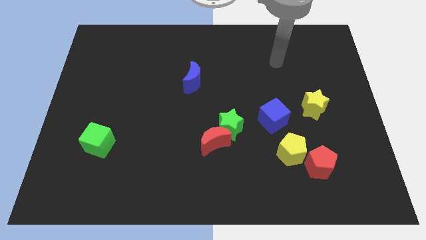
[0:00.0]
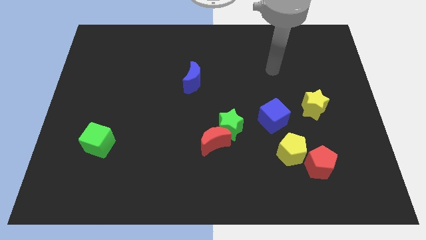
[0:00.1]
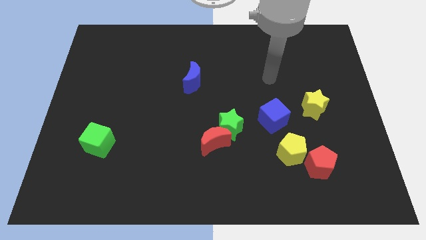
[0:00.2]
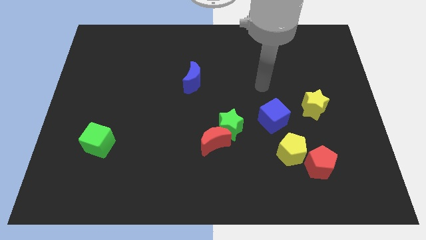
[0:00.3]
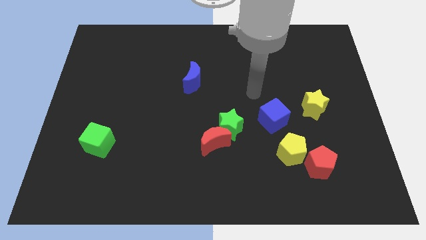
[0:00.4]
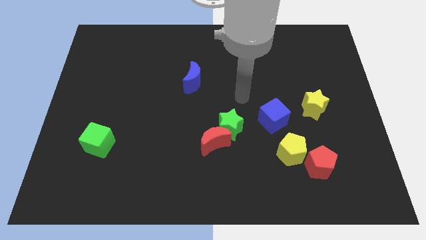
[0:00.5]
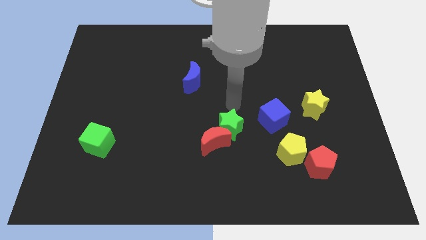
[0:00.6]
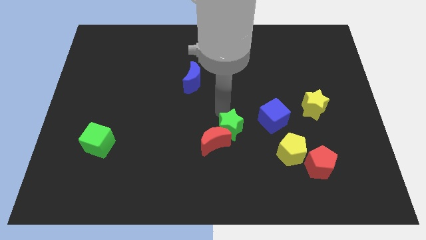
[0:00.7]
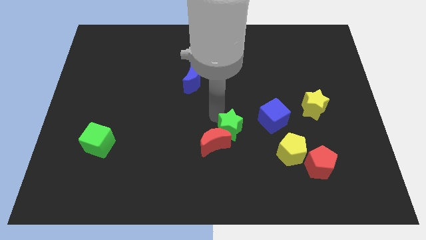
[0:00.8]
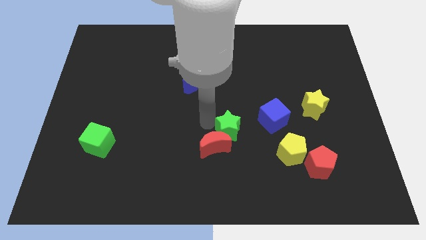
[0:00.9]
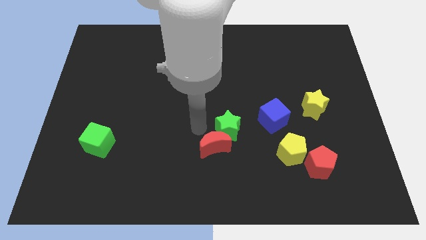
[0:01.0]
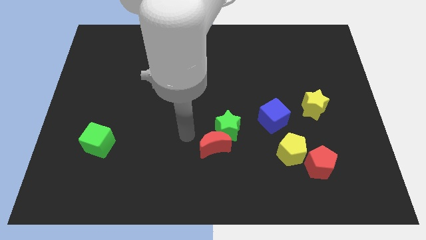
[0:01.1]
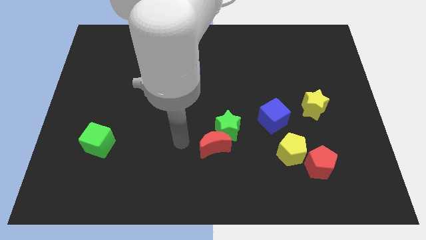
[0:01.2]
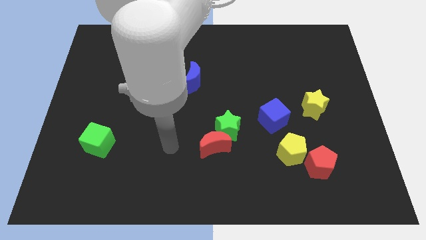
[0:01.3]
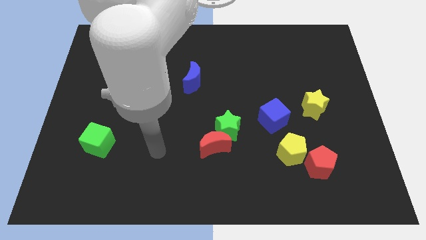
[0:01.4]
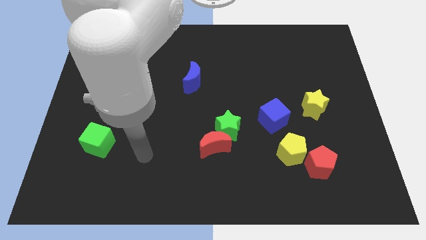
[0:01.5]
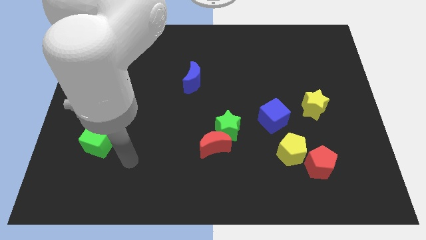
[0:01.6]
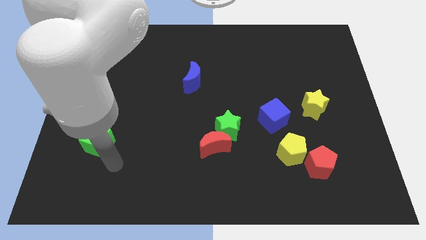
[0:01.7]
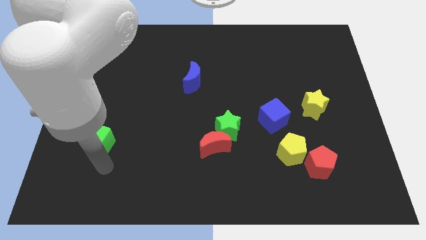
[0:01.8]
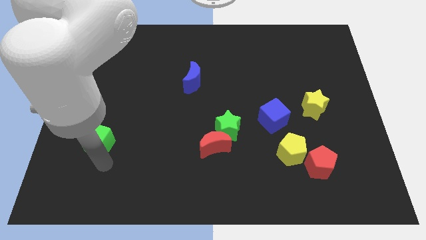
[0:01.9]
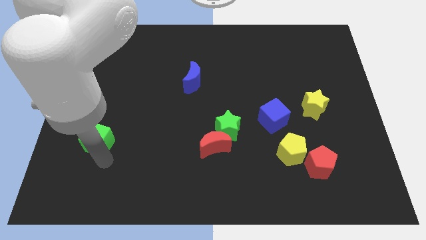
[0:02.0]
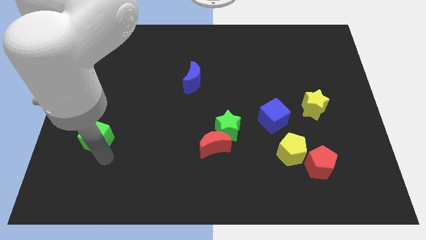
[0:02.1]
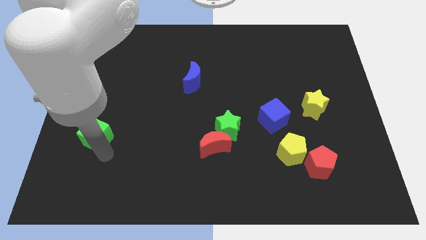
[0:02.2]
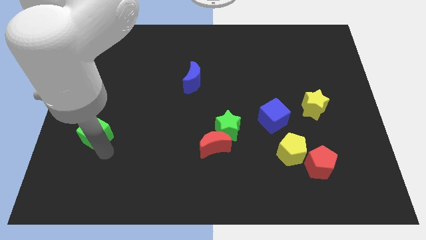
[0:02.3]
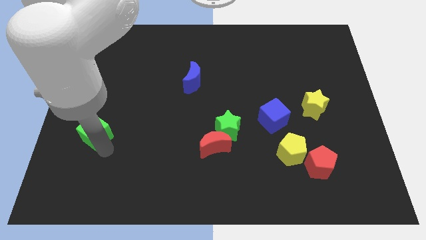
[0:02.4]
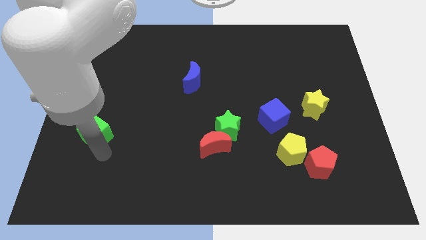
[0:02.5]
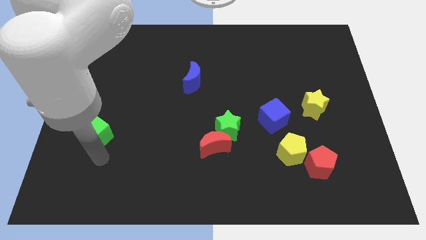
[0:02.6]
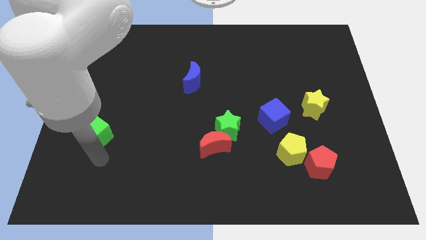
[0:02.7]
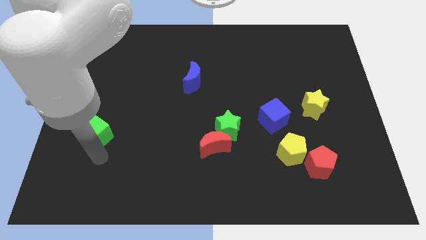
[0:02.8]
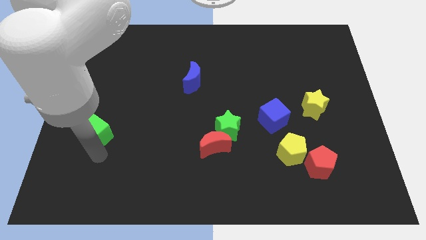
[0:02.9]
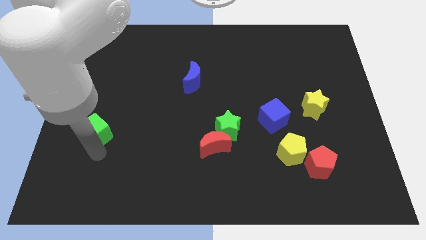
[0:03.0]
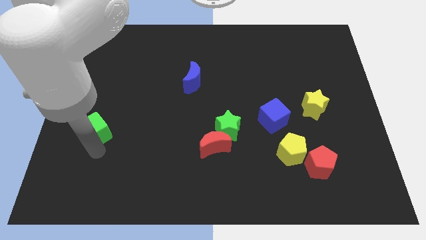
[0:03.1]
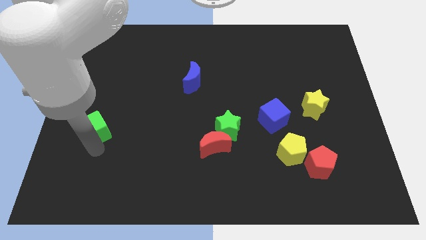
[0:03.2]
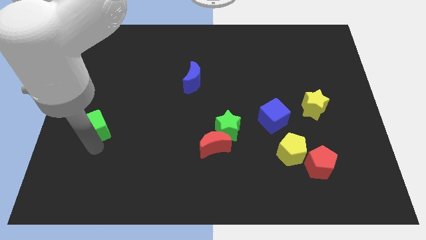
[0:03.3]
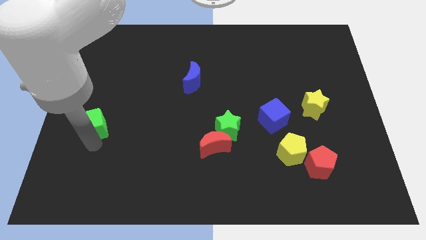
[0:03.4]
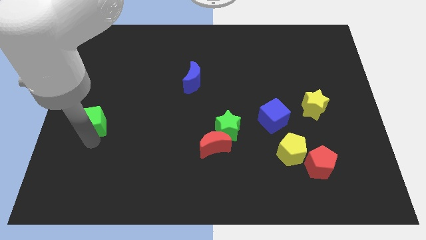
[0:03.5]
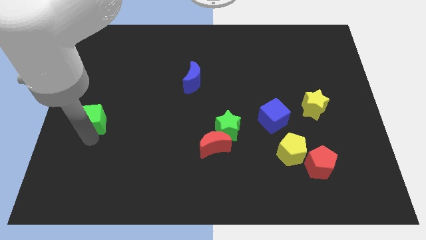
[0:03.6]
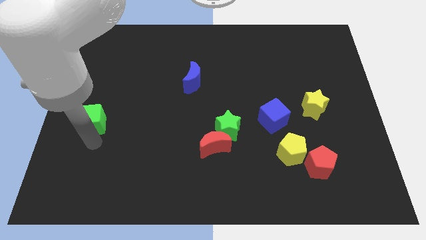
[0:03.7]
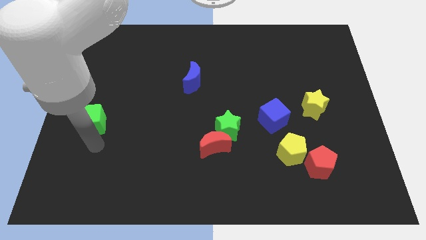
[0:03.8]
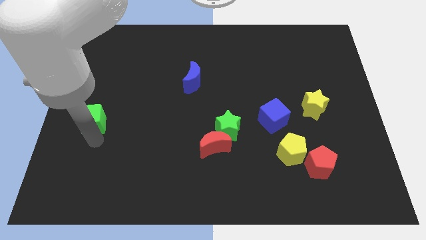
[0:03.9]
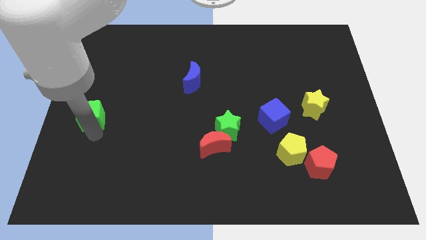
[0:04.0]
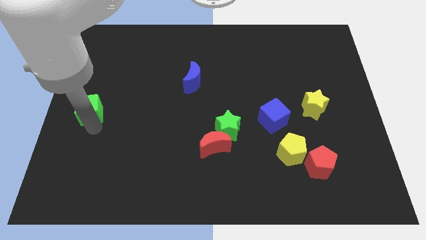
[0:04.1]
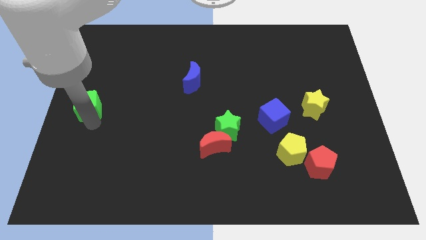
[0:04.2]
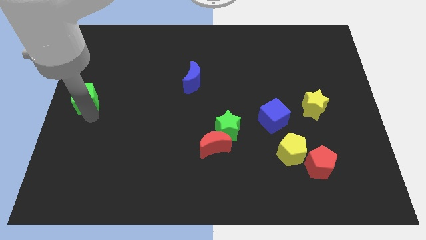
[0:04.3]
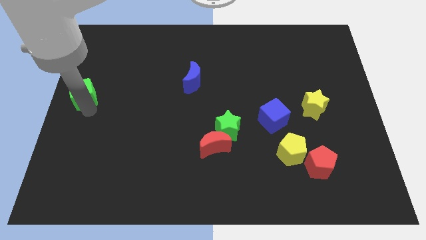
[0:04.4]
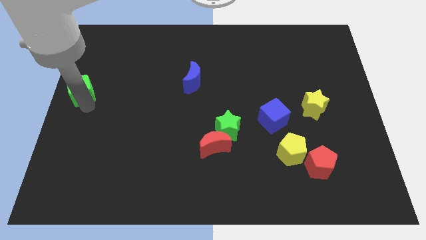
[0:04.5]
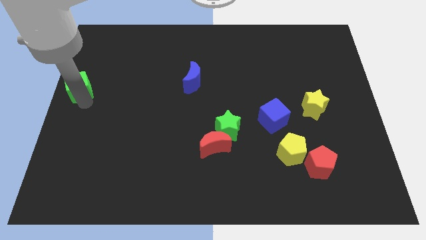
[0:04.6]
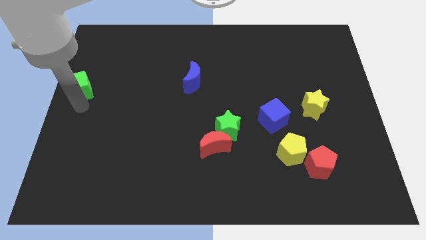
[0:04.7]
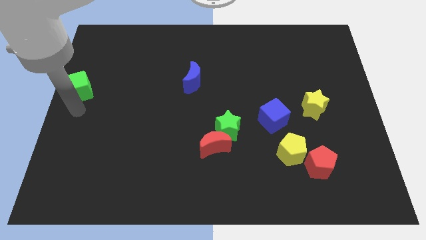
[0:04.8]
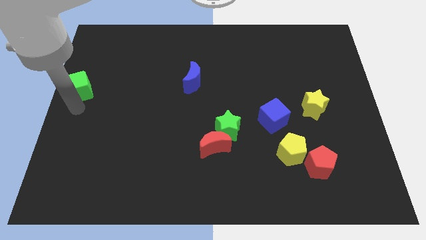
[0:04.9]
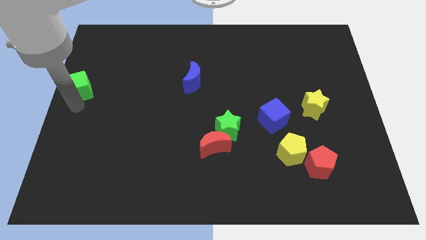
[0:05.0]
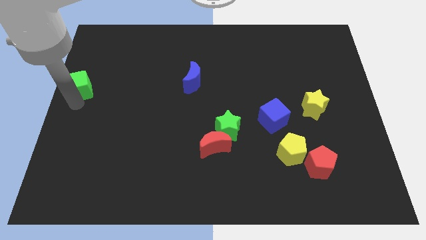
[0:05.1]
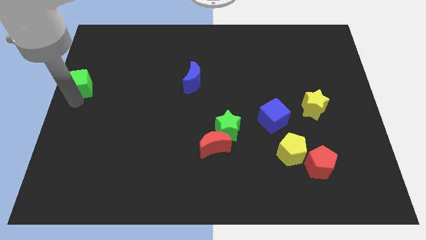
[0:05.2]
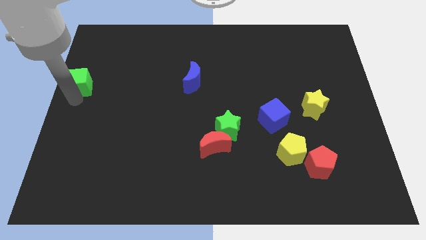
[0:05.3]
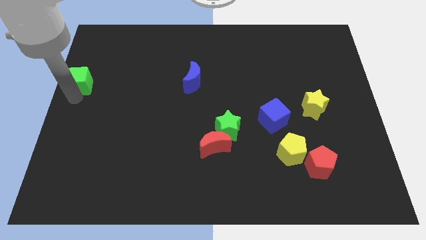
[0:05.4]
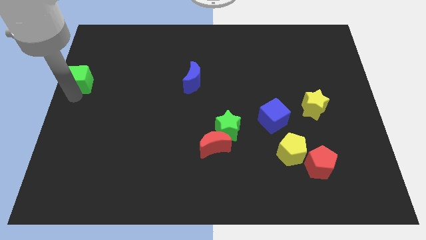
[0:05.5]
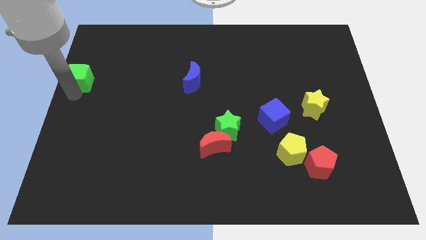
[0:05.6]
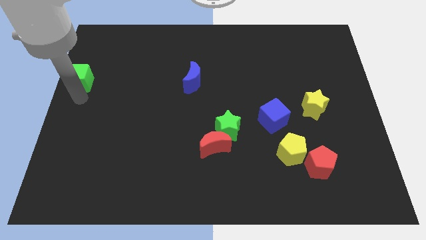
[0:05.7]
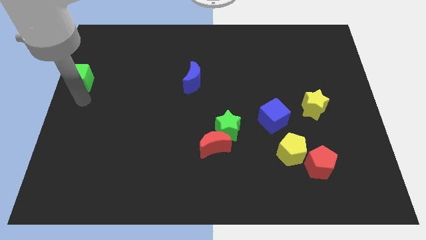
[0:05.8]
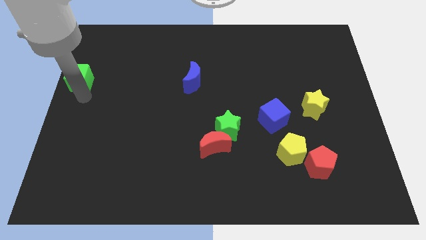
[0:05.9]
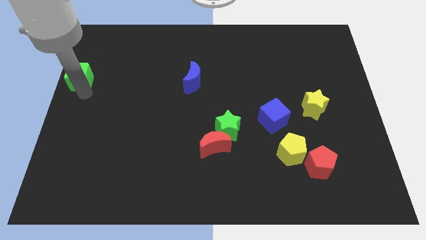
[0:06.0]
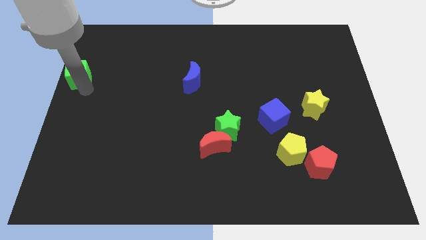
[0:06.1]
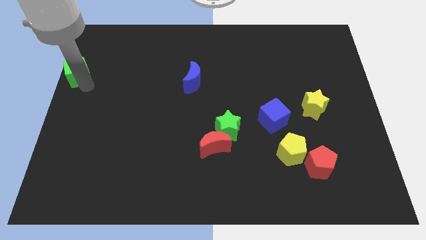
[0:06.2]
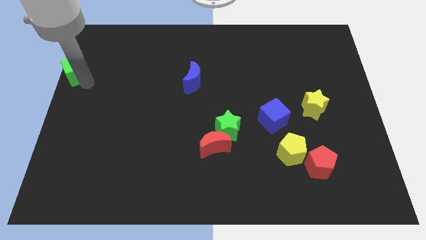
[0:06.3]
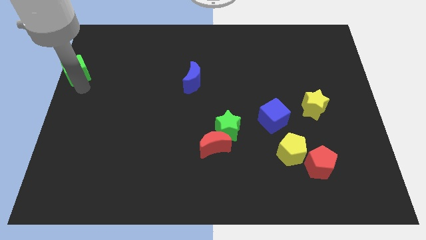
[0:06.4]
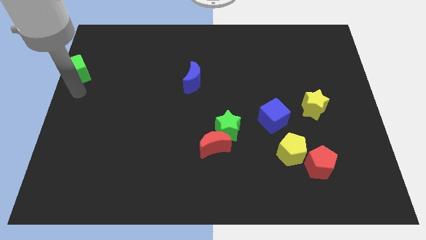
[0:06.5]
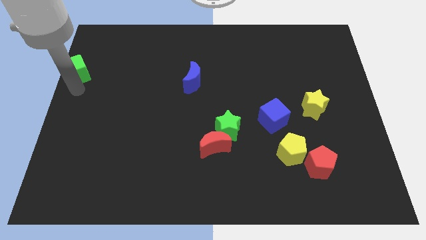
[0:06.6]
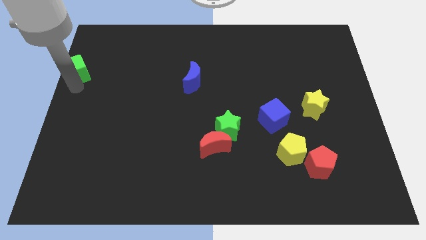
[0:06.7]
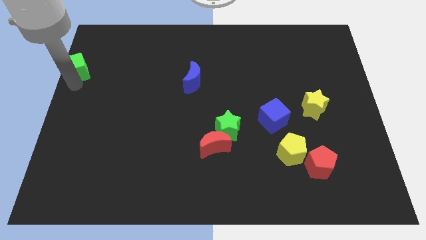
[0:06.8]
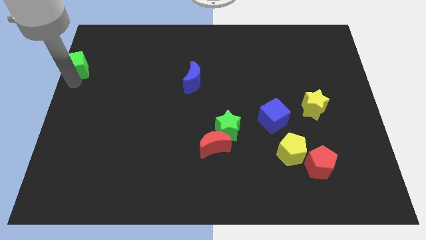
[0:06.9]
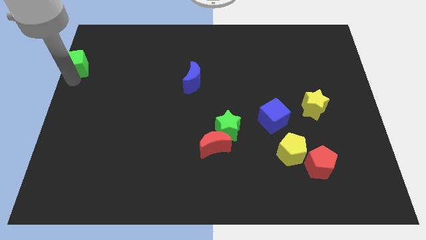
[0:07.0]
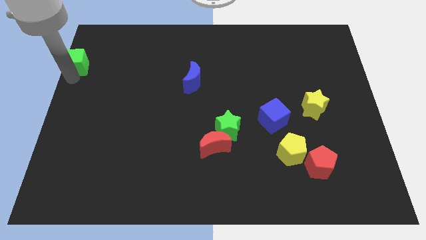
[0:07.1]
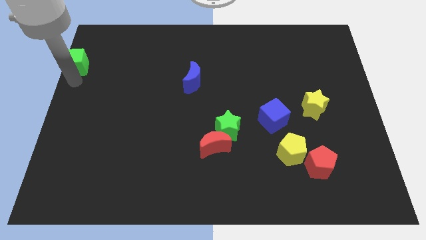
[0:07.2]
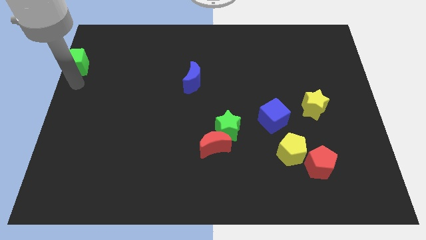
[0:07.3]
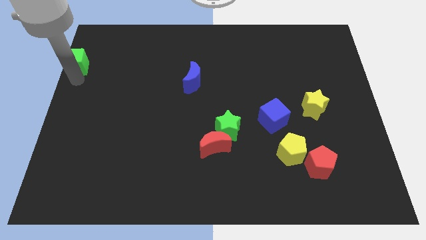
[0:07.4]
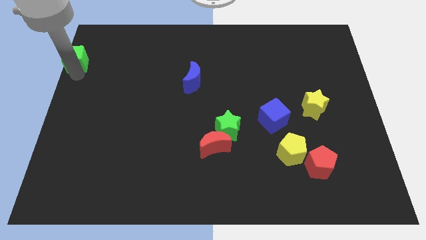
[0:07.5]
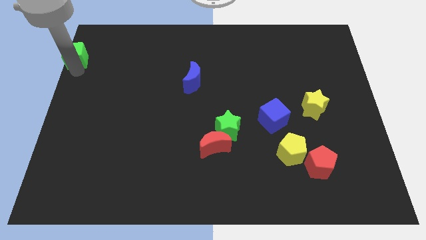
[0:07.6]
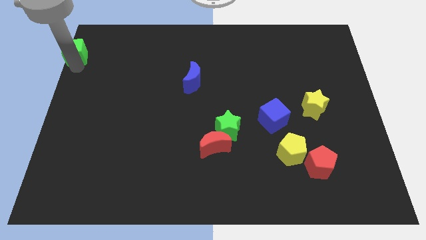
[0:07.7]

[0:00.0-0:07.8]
put the green cube to the top left corner
